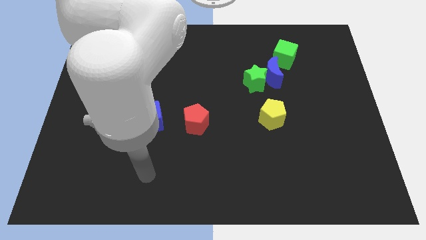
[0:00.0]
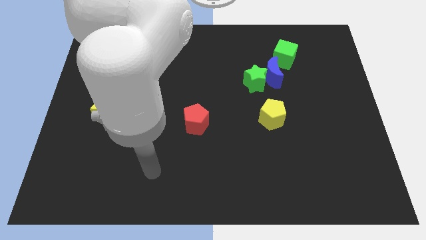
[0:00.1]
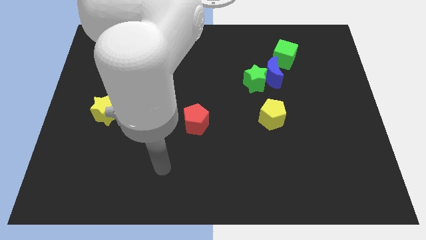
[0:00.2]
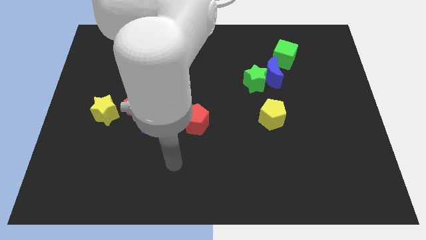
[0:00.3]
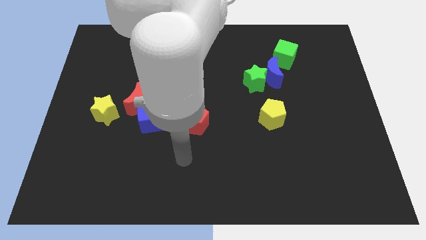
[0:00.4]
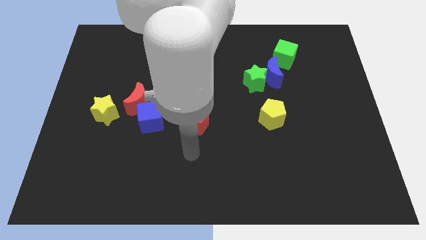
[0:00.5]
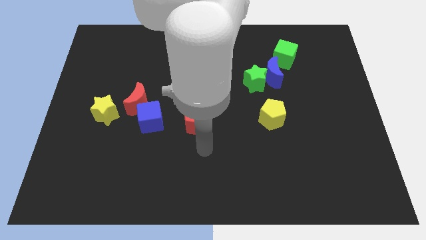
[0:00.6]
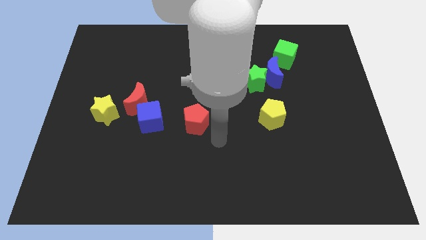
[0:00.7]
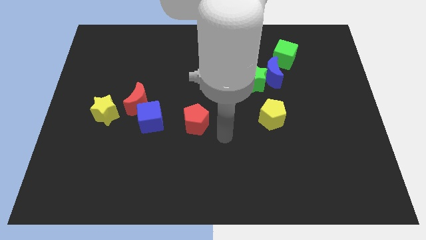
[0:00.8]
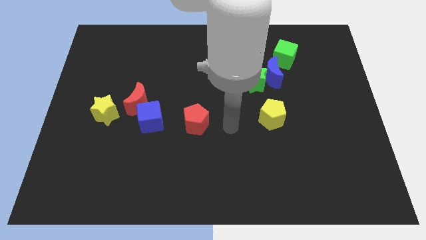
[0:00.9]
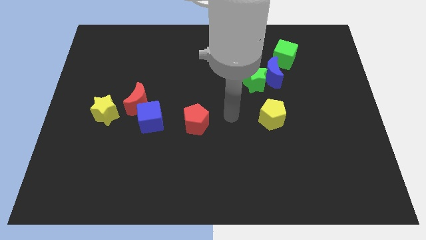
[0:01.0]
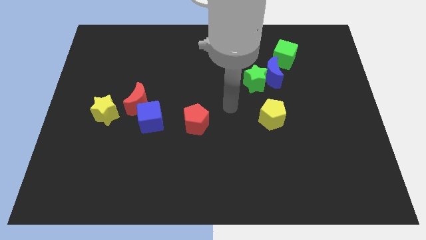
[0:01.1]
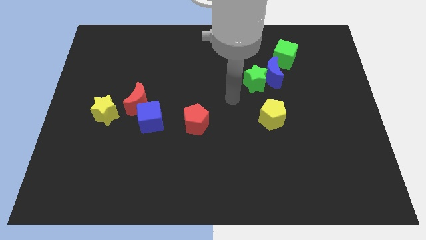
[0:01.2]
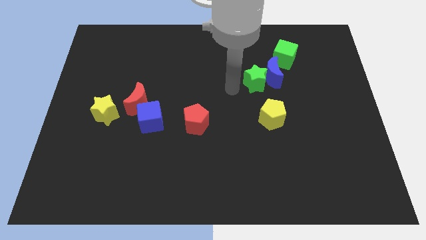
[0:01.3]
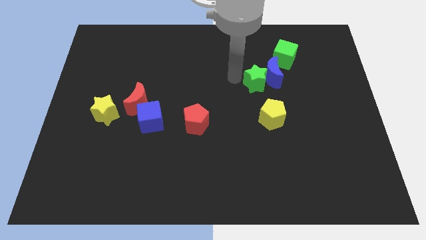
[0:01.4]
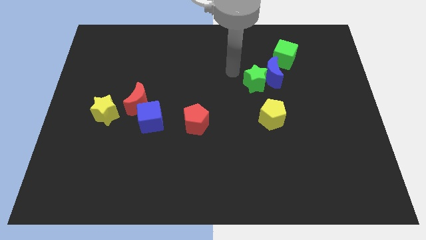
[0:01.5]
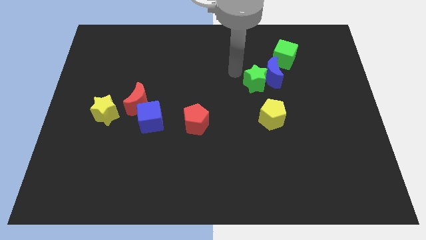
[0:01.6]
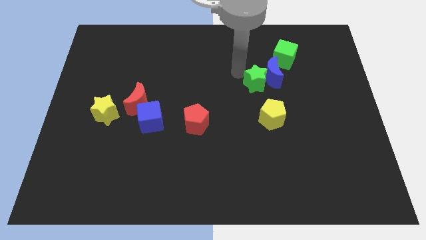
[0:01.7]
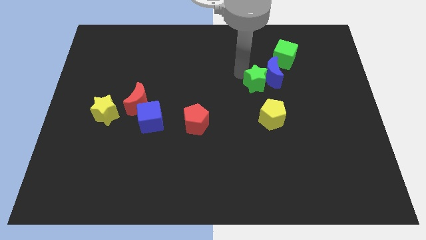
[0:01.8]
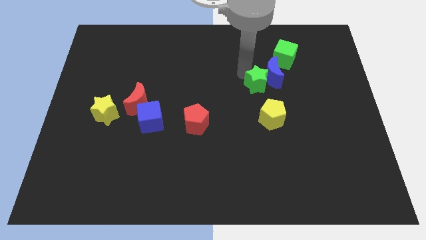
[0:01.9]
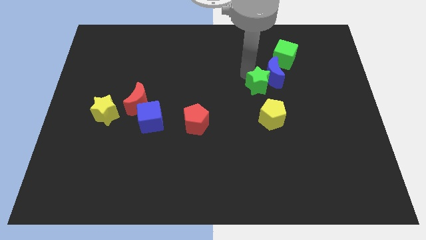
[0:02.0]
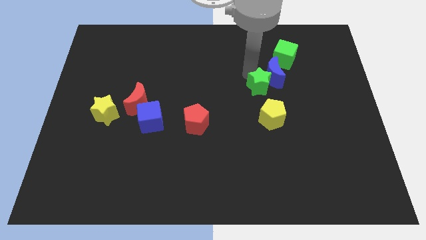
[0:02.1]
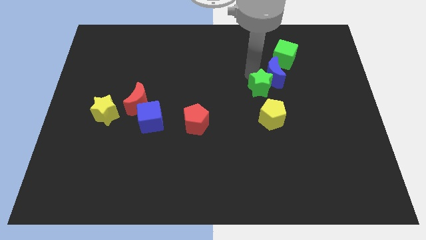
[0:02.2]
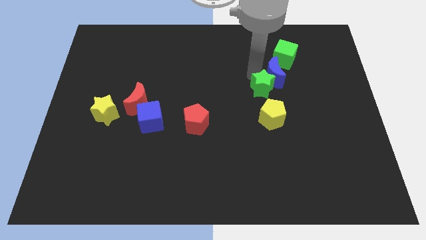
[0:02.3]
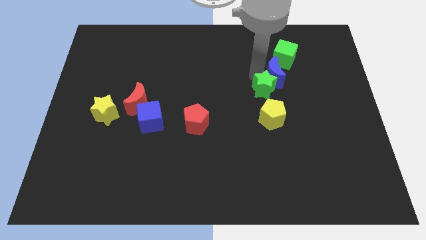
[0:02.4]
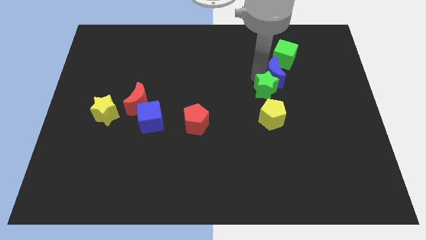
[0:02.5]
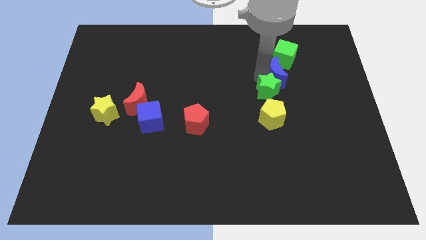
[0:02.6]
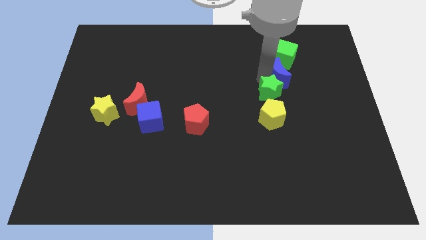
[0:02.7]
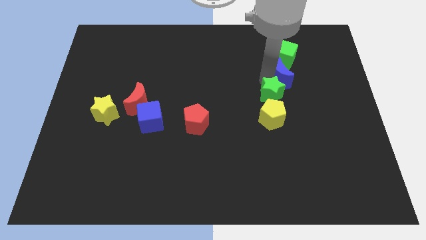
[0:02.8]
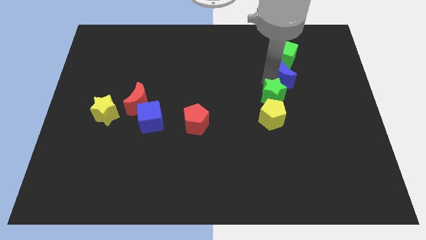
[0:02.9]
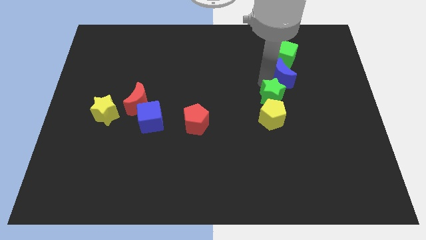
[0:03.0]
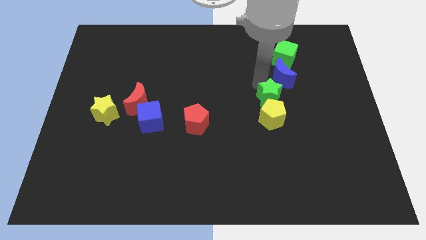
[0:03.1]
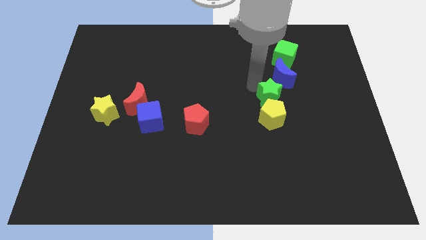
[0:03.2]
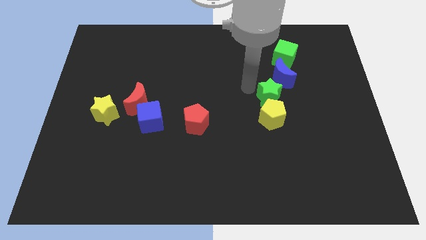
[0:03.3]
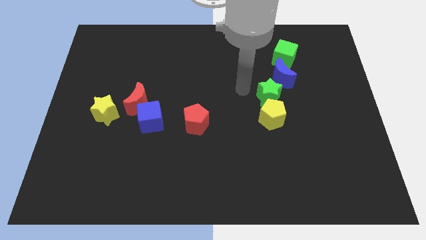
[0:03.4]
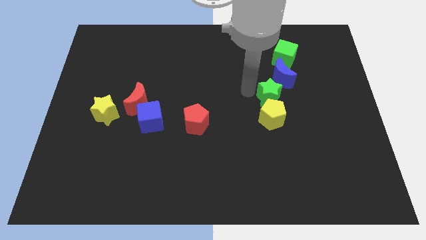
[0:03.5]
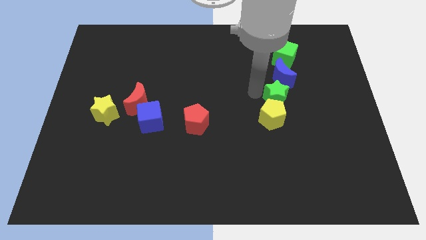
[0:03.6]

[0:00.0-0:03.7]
move the green star a bit diagonally downwards and right

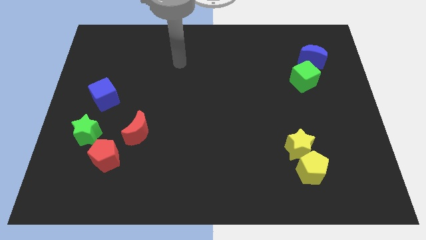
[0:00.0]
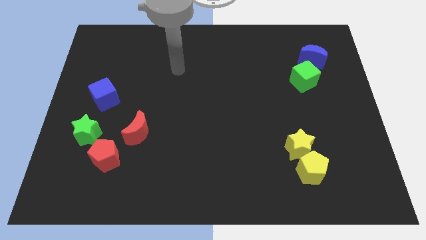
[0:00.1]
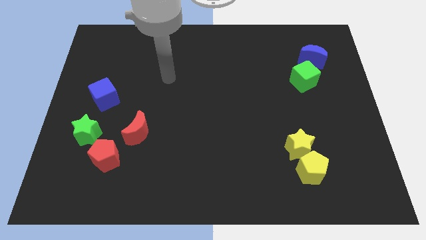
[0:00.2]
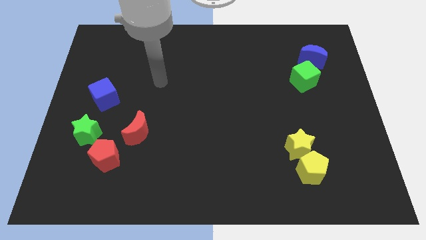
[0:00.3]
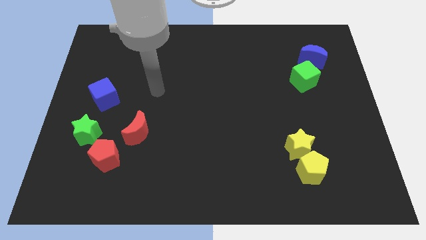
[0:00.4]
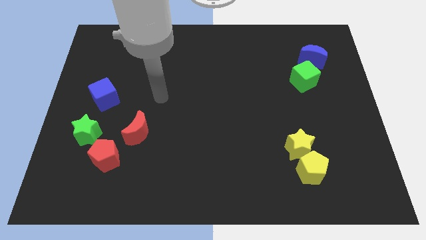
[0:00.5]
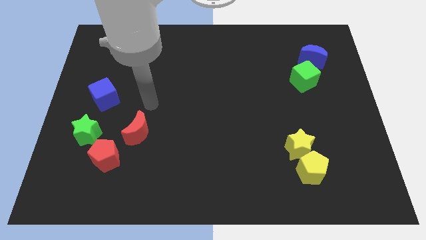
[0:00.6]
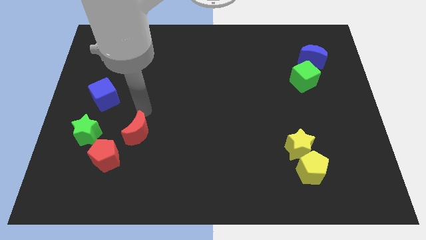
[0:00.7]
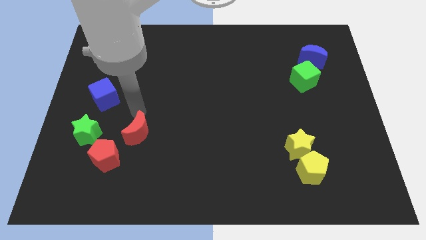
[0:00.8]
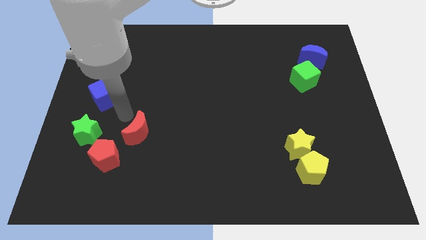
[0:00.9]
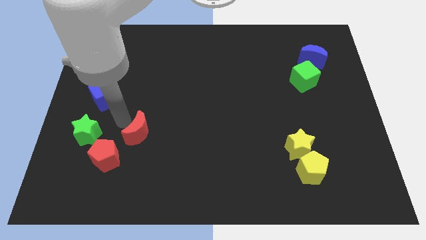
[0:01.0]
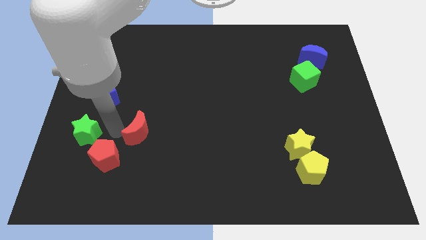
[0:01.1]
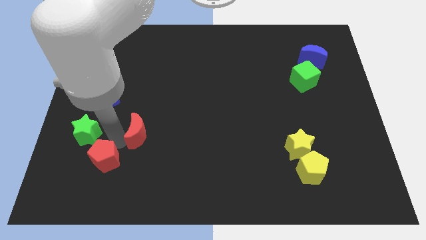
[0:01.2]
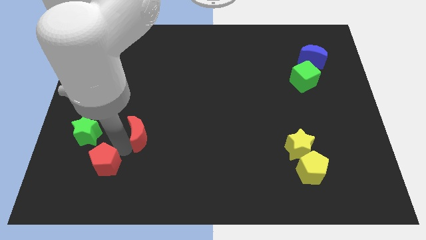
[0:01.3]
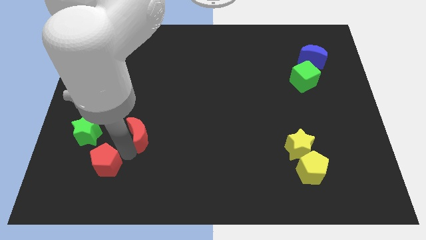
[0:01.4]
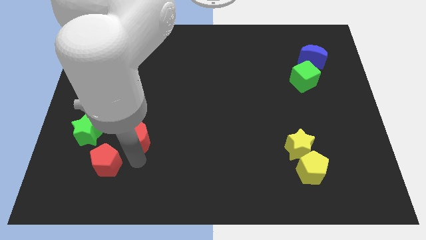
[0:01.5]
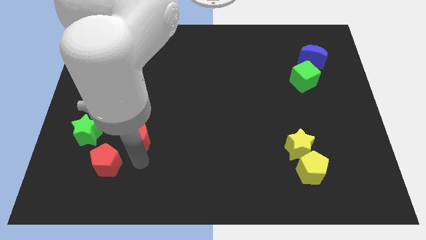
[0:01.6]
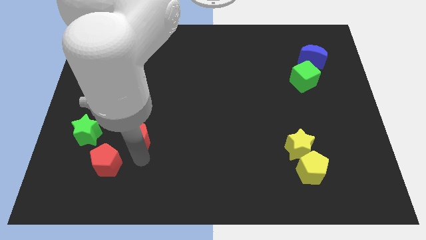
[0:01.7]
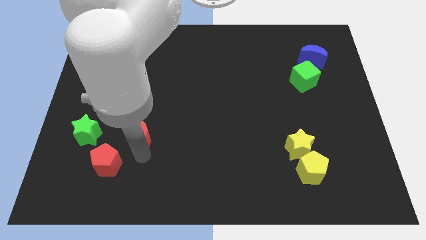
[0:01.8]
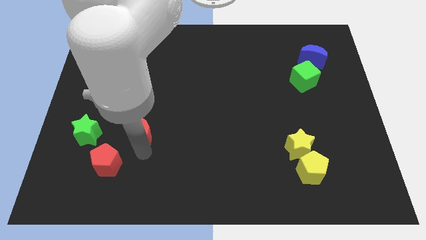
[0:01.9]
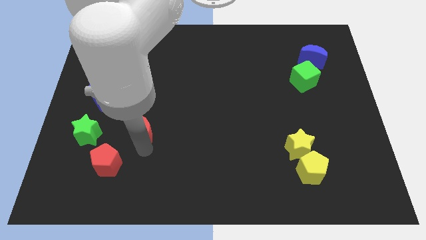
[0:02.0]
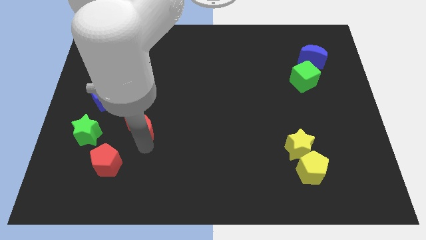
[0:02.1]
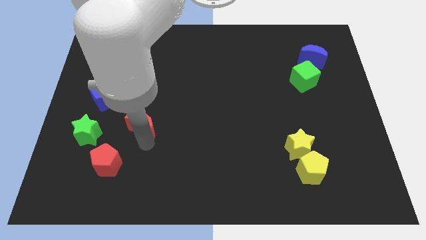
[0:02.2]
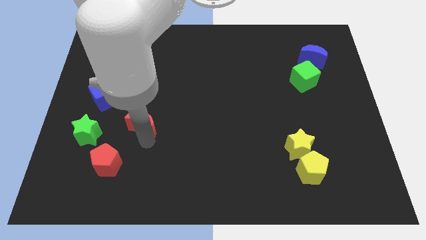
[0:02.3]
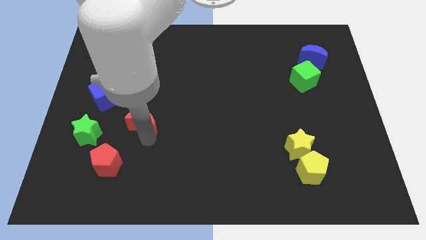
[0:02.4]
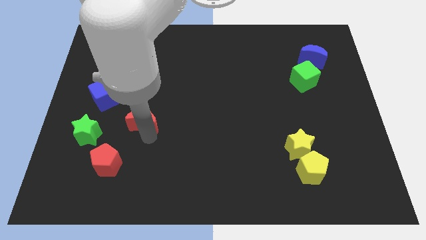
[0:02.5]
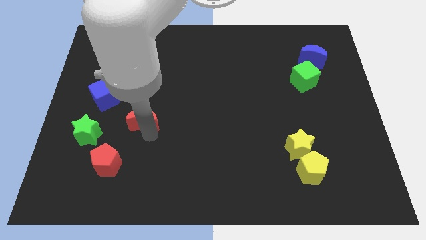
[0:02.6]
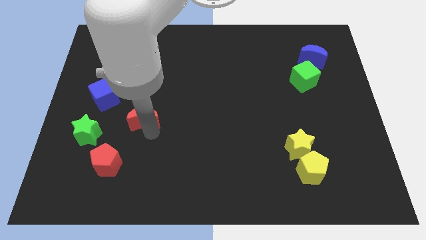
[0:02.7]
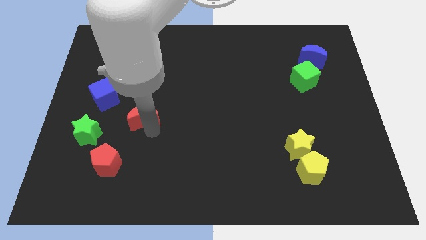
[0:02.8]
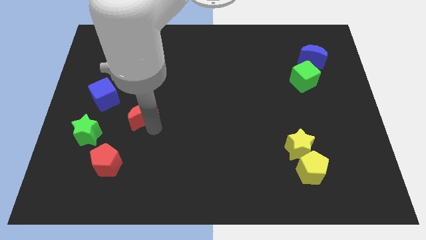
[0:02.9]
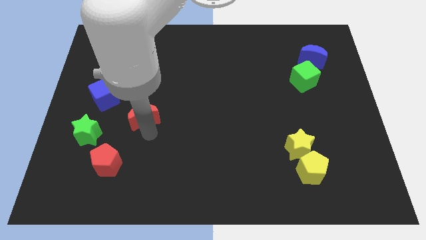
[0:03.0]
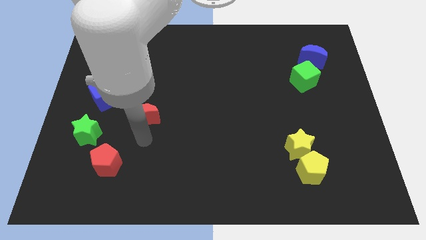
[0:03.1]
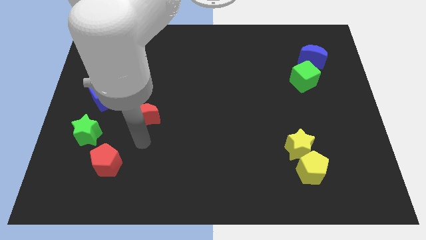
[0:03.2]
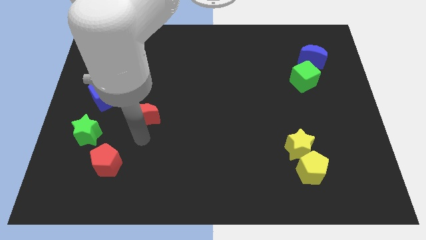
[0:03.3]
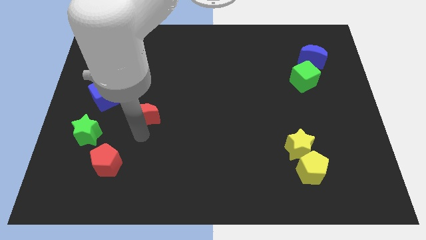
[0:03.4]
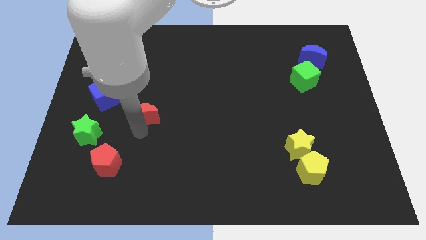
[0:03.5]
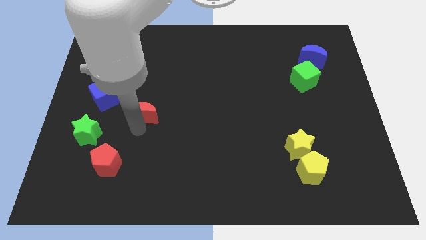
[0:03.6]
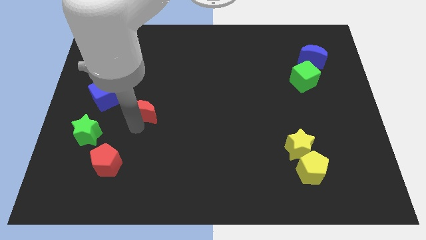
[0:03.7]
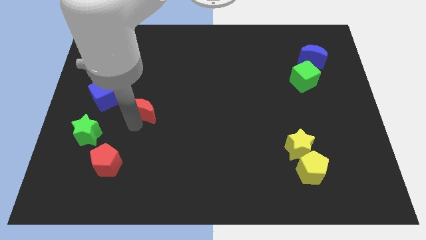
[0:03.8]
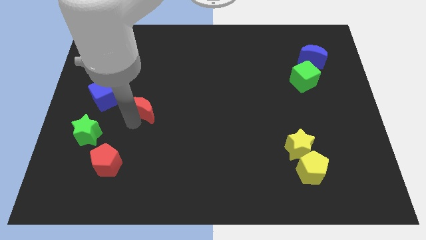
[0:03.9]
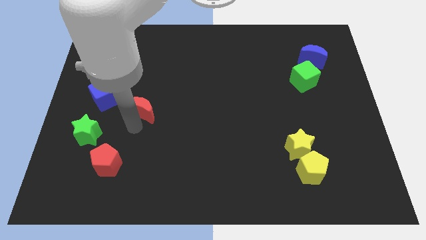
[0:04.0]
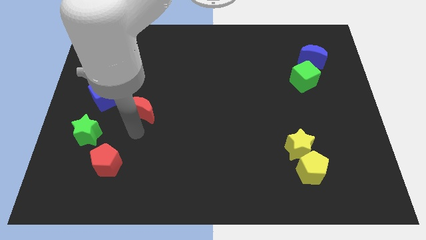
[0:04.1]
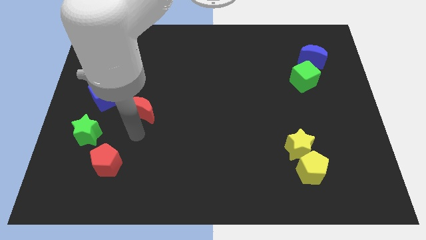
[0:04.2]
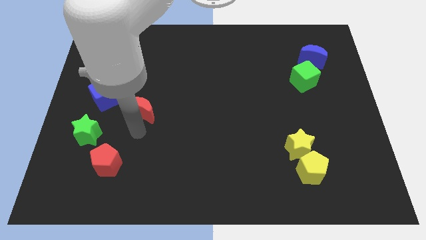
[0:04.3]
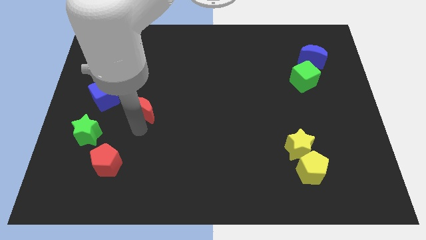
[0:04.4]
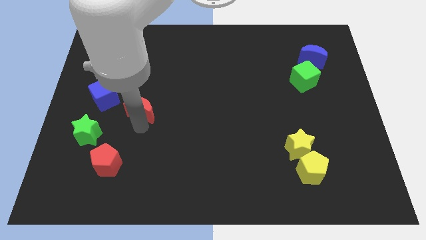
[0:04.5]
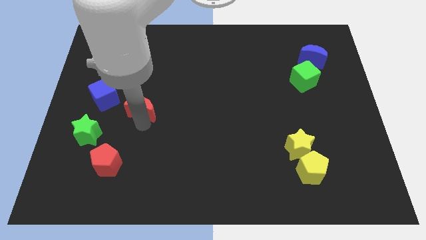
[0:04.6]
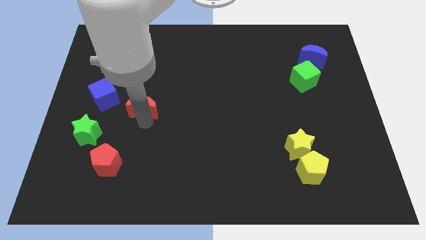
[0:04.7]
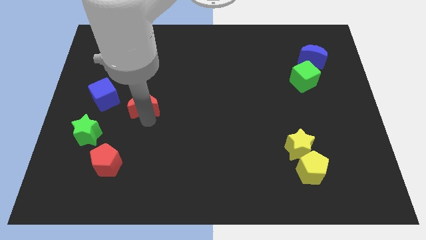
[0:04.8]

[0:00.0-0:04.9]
move the red moon up a bit
